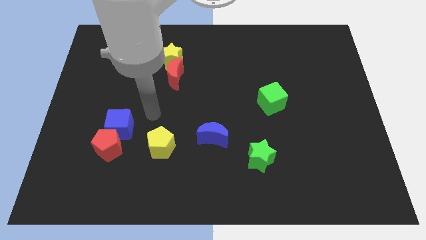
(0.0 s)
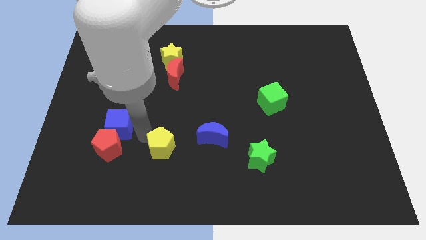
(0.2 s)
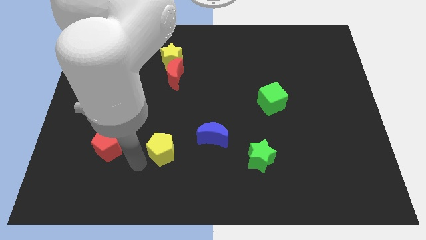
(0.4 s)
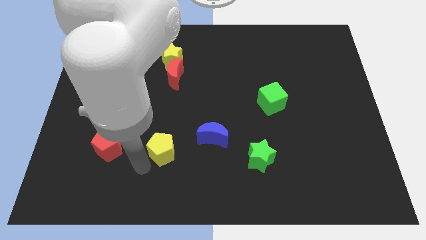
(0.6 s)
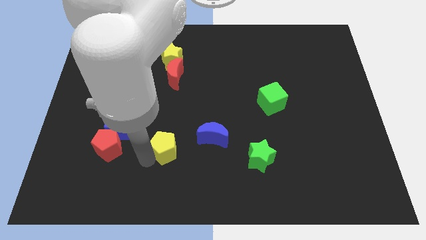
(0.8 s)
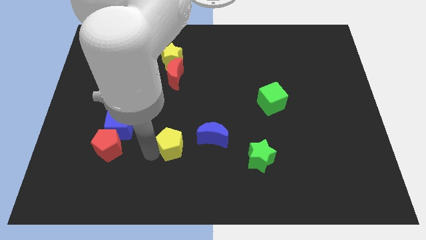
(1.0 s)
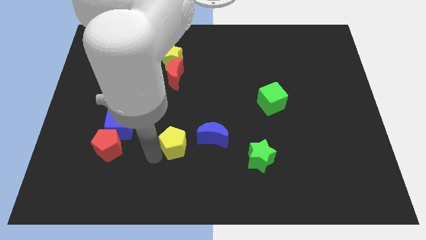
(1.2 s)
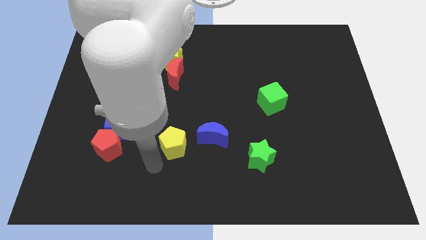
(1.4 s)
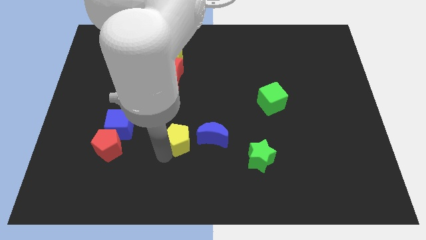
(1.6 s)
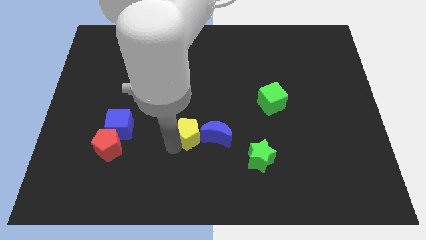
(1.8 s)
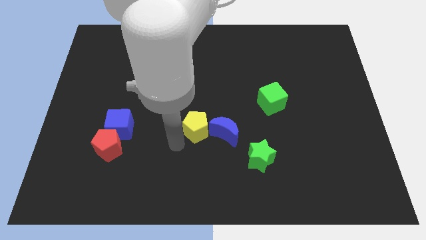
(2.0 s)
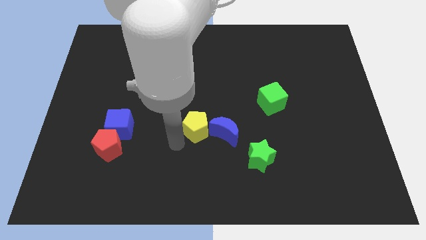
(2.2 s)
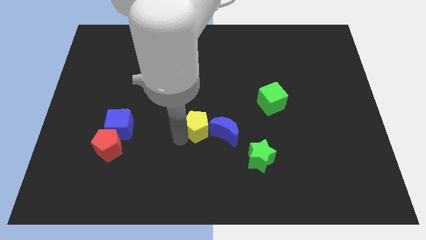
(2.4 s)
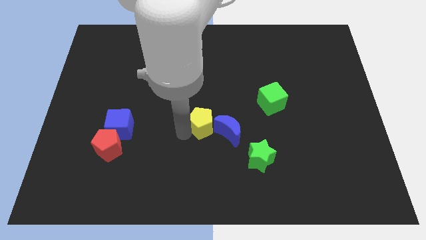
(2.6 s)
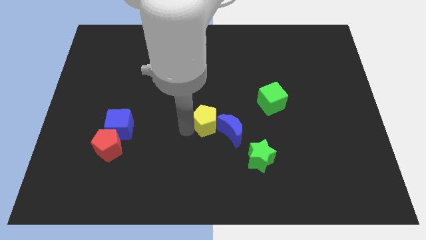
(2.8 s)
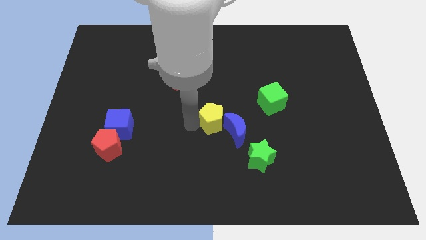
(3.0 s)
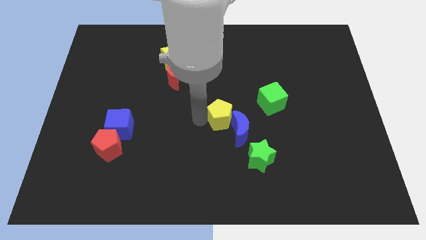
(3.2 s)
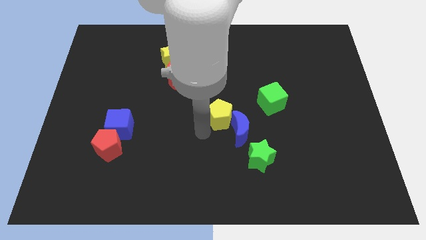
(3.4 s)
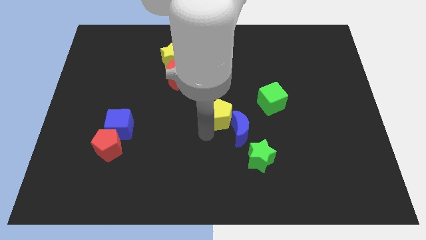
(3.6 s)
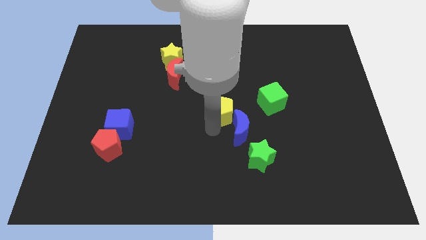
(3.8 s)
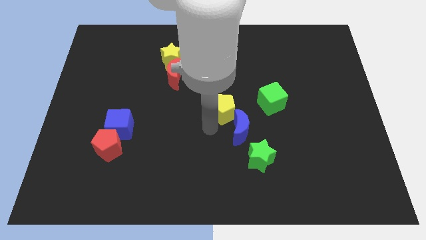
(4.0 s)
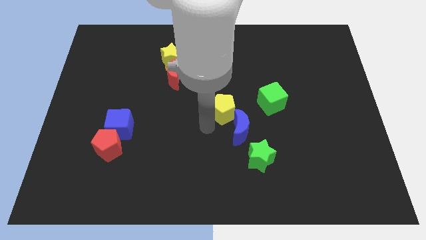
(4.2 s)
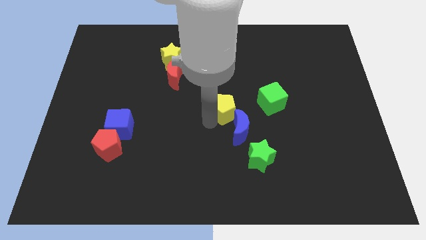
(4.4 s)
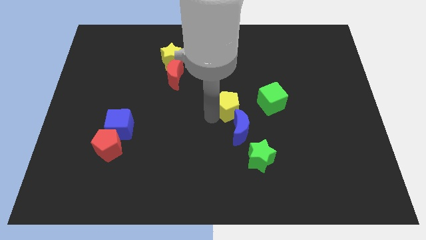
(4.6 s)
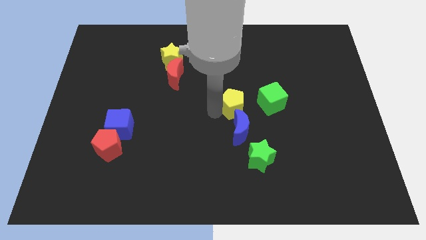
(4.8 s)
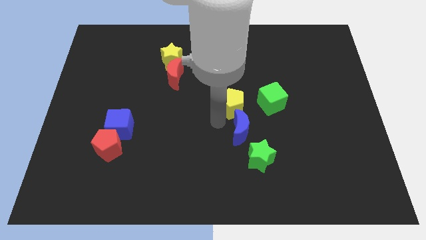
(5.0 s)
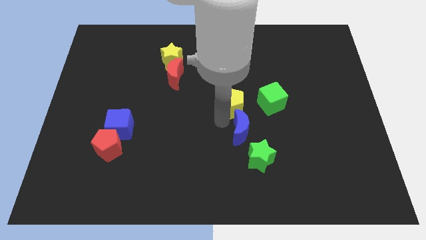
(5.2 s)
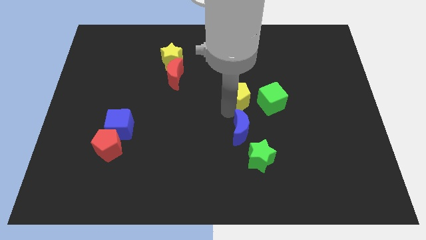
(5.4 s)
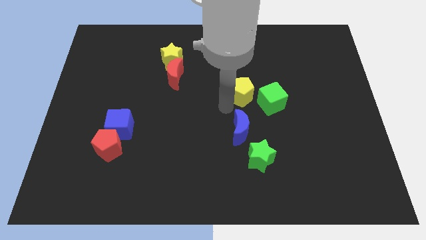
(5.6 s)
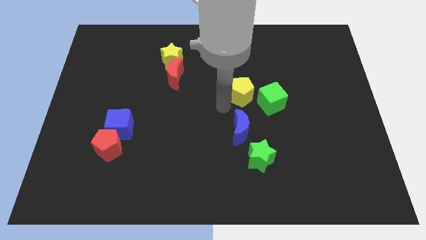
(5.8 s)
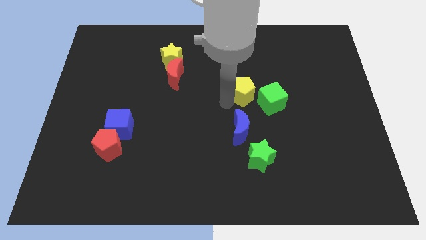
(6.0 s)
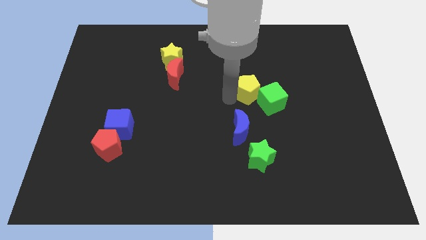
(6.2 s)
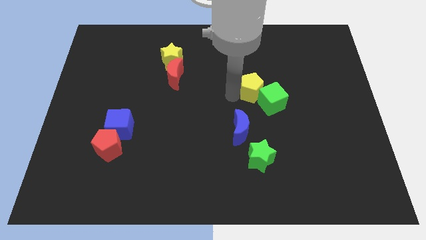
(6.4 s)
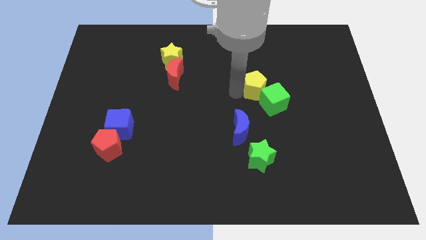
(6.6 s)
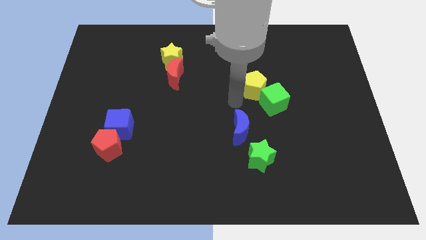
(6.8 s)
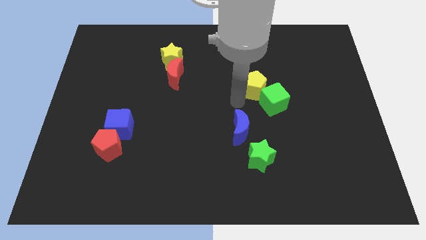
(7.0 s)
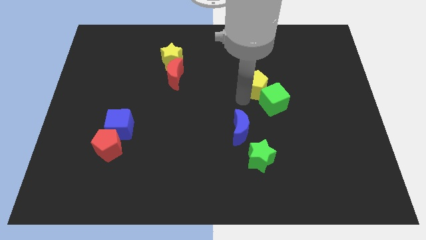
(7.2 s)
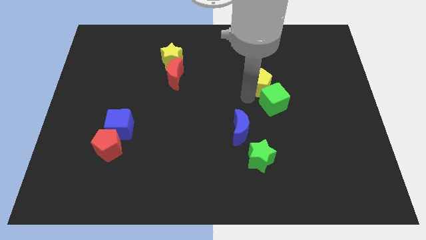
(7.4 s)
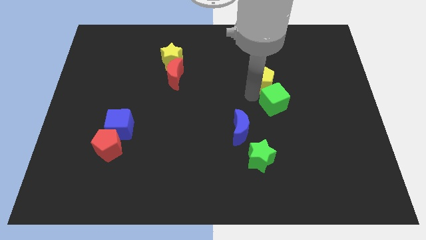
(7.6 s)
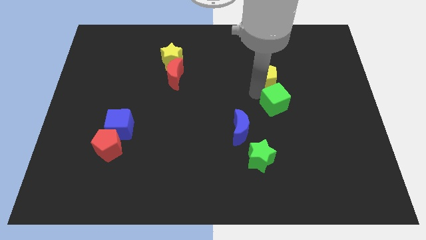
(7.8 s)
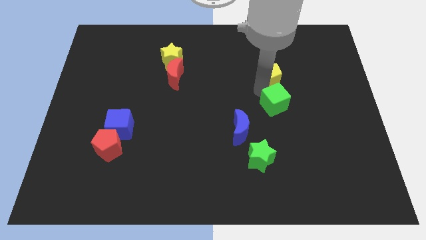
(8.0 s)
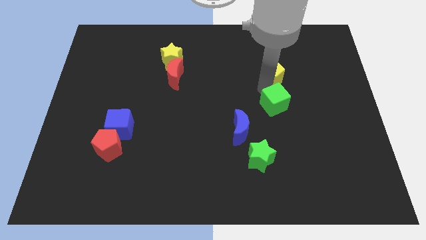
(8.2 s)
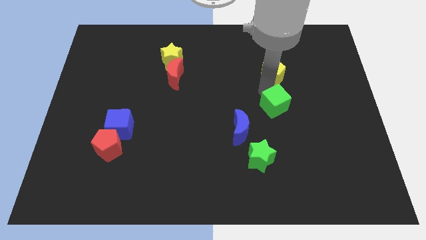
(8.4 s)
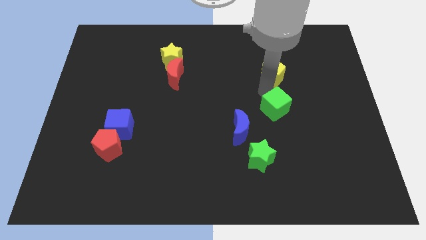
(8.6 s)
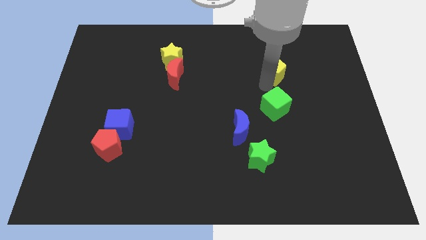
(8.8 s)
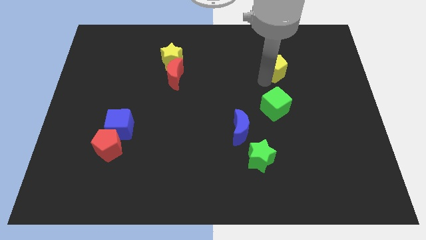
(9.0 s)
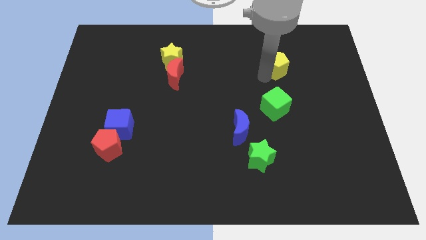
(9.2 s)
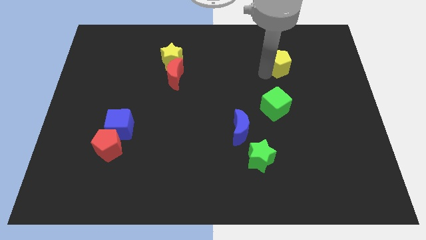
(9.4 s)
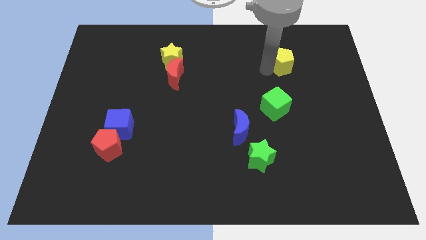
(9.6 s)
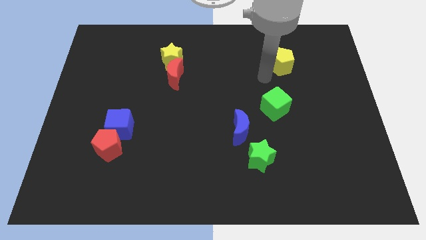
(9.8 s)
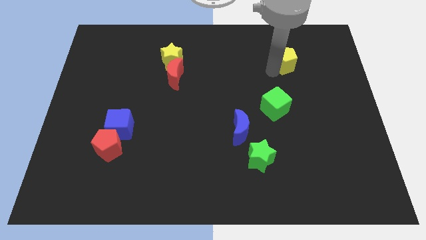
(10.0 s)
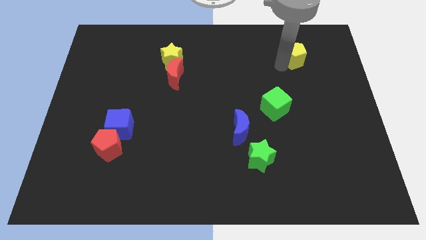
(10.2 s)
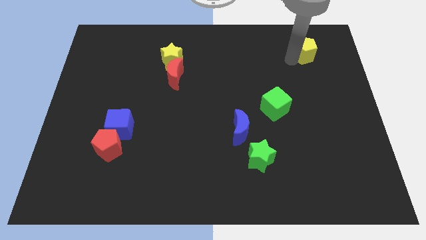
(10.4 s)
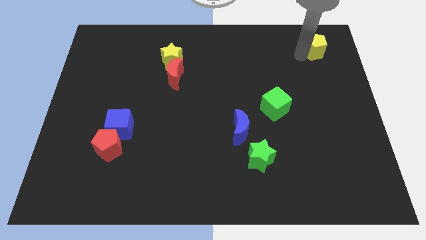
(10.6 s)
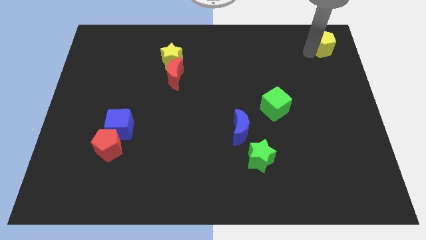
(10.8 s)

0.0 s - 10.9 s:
put the yellow pentagon to the top right corner

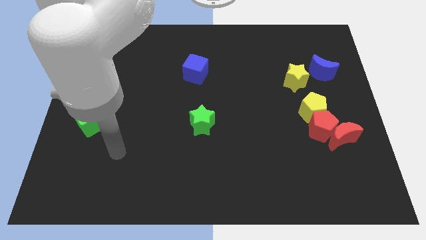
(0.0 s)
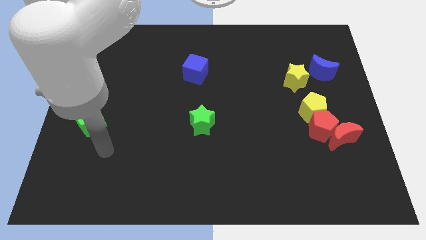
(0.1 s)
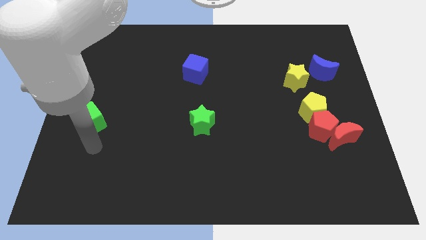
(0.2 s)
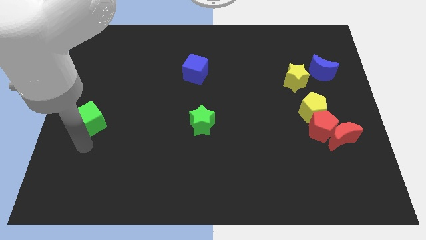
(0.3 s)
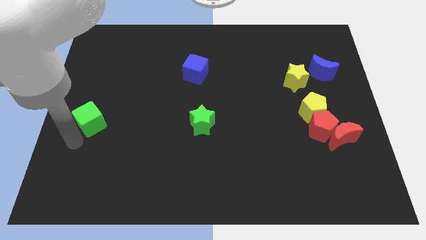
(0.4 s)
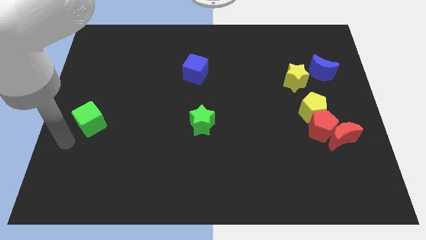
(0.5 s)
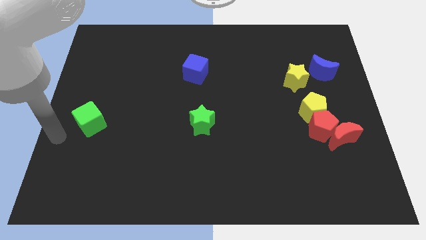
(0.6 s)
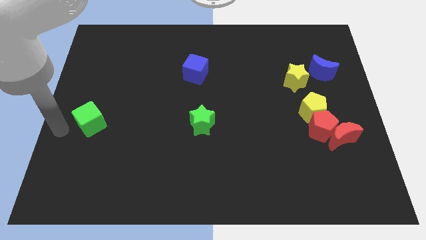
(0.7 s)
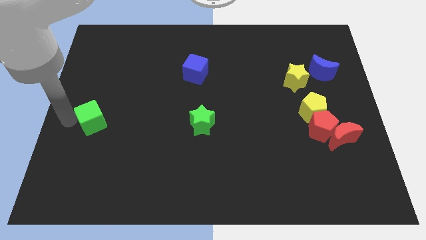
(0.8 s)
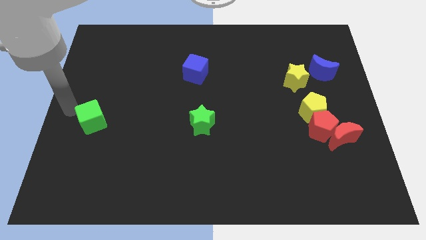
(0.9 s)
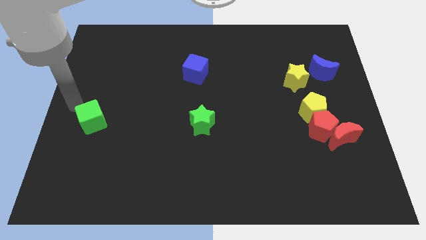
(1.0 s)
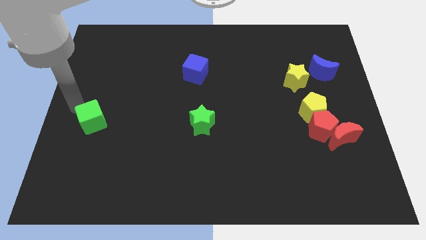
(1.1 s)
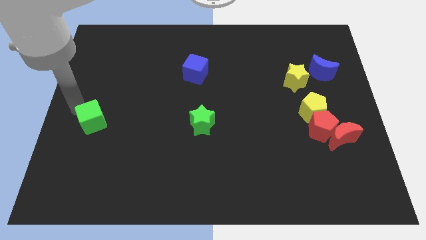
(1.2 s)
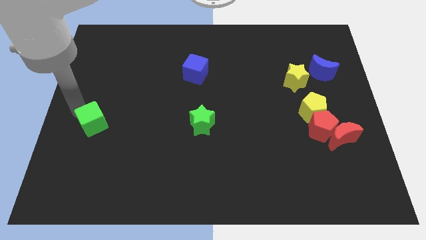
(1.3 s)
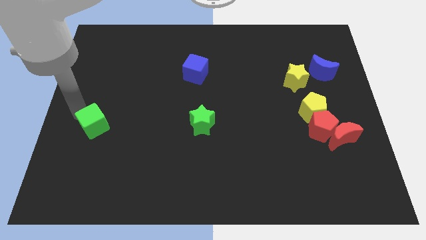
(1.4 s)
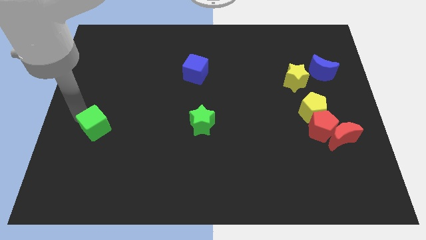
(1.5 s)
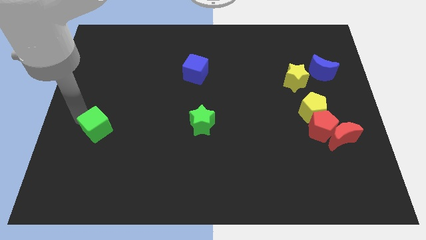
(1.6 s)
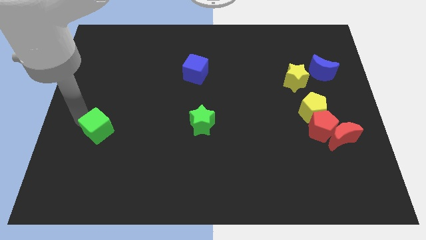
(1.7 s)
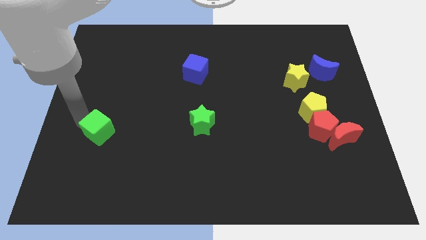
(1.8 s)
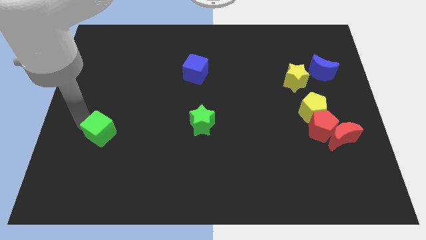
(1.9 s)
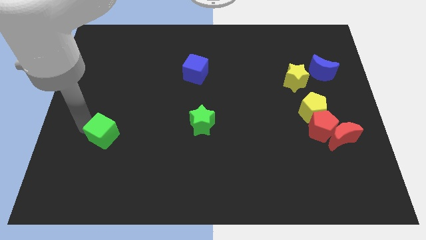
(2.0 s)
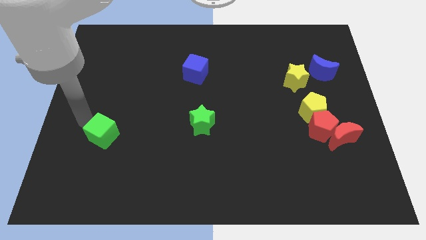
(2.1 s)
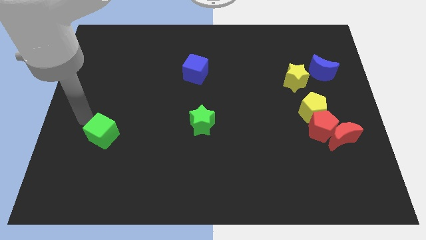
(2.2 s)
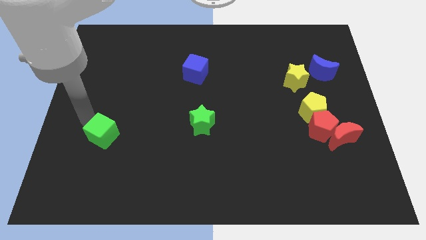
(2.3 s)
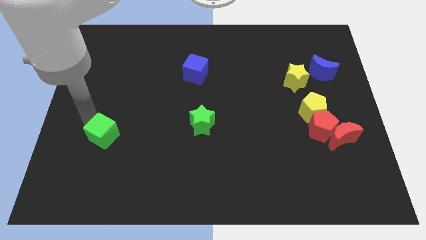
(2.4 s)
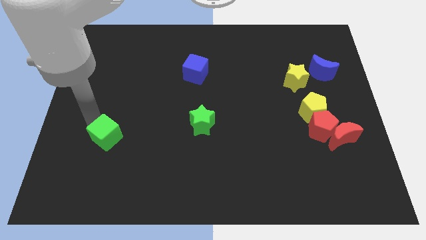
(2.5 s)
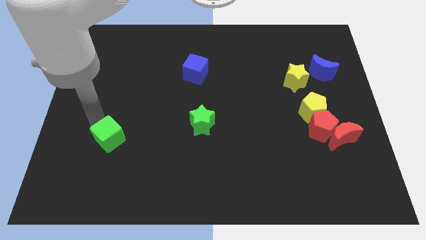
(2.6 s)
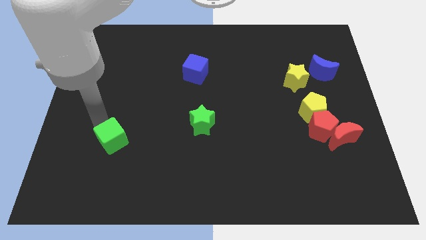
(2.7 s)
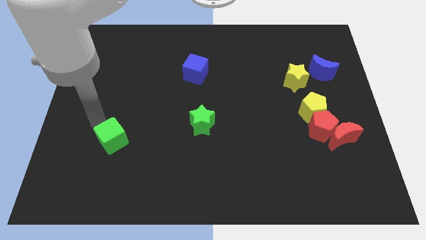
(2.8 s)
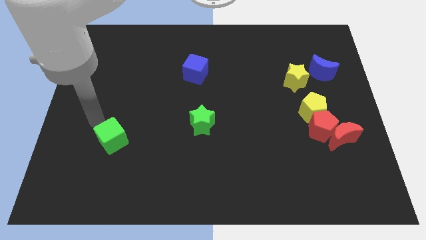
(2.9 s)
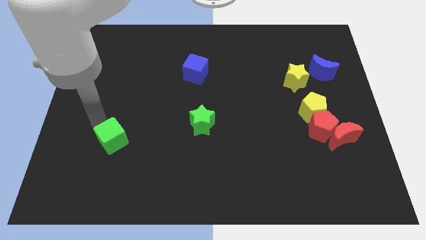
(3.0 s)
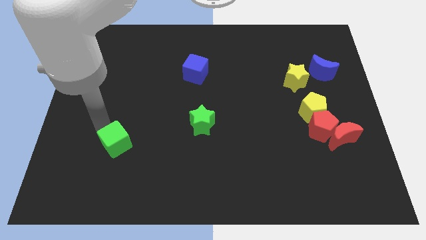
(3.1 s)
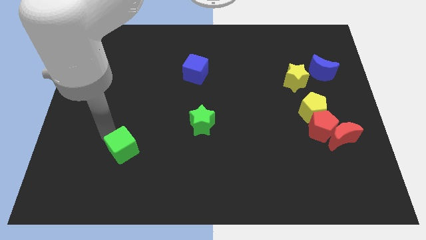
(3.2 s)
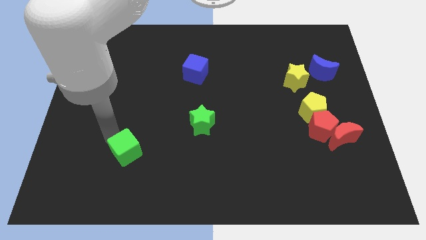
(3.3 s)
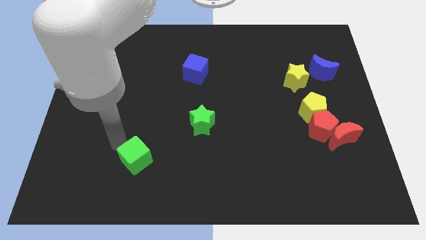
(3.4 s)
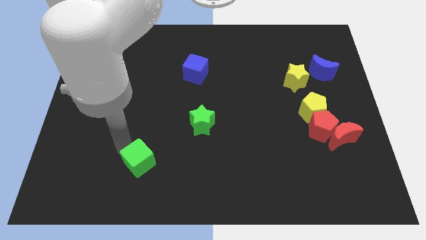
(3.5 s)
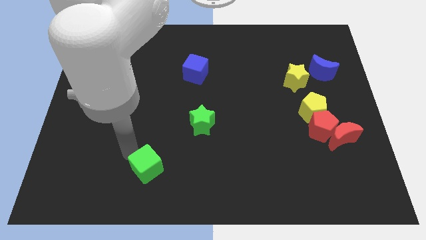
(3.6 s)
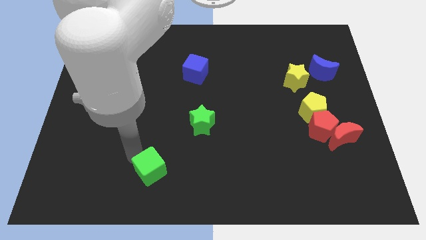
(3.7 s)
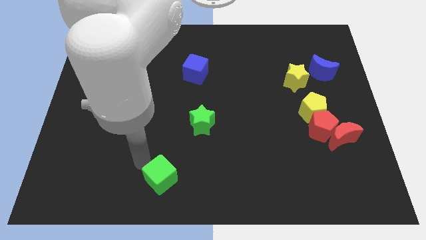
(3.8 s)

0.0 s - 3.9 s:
push the green cube to the bottom
